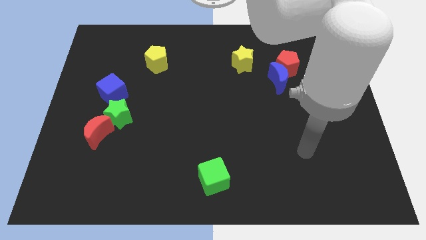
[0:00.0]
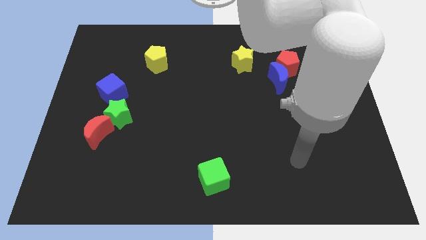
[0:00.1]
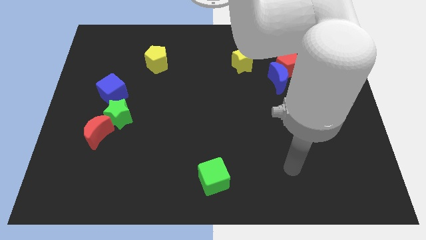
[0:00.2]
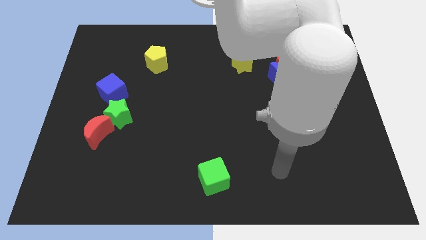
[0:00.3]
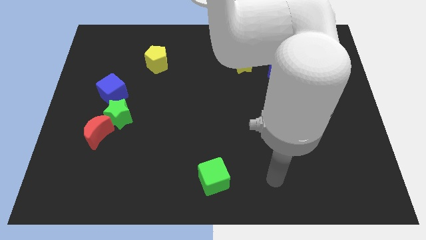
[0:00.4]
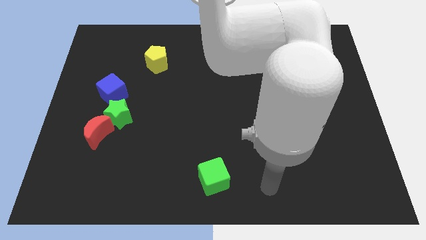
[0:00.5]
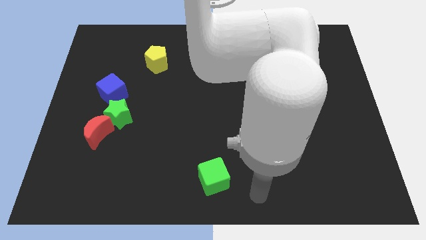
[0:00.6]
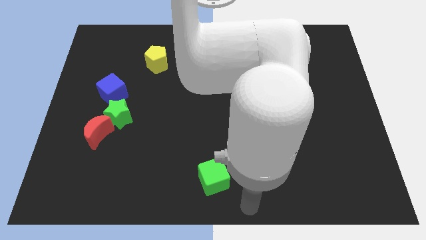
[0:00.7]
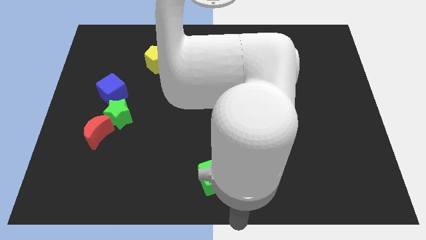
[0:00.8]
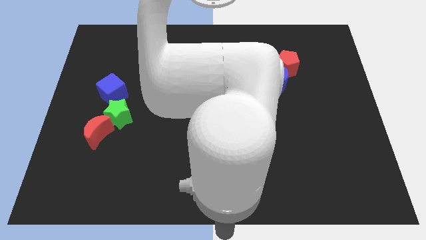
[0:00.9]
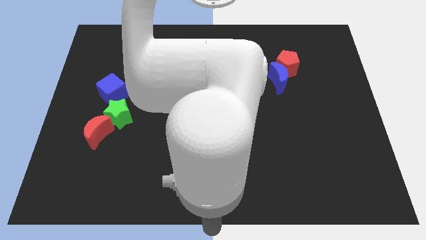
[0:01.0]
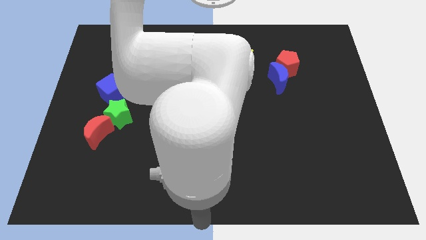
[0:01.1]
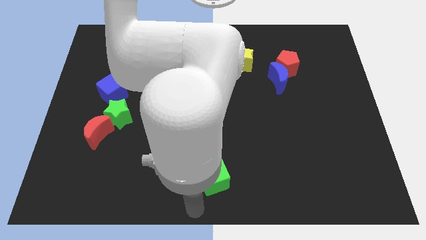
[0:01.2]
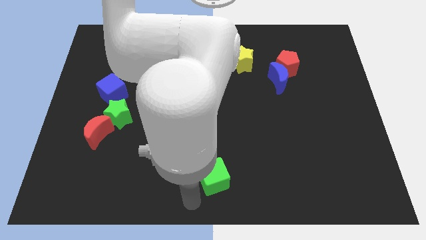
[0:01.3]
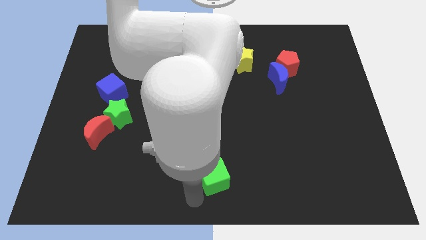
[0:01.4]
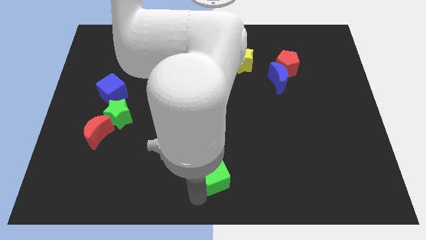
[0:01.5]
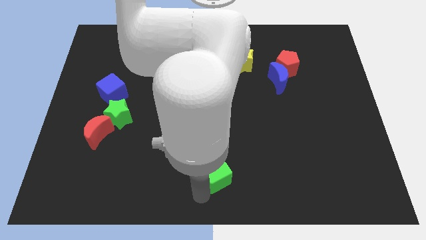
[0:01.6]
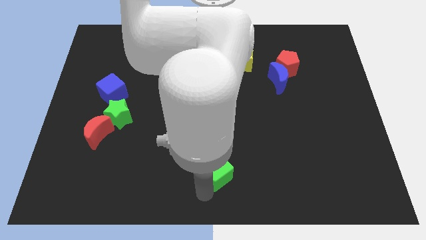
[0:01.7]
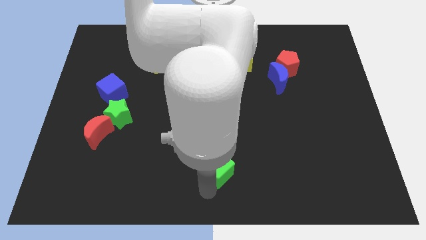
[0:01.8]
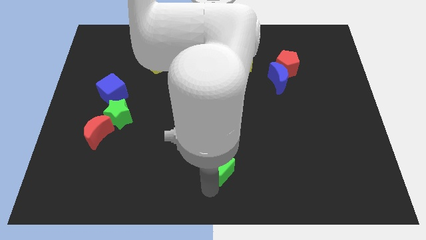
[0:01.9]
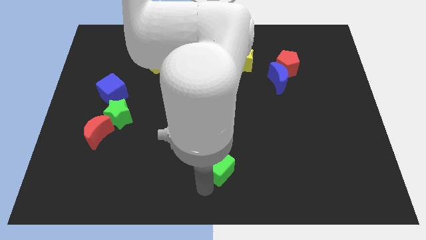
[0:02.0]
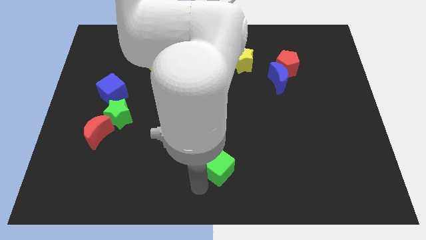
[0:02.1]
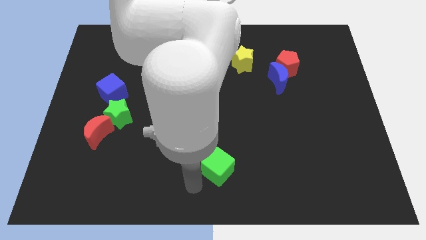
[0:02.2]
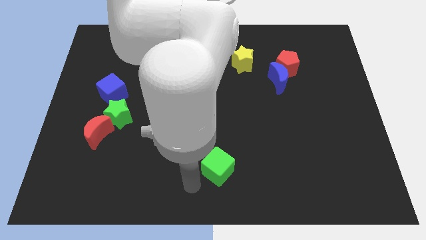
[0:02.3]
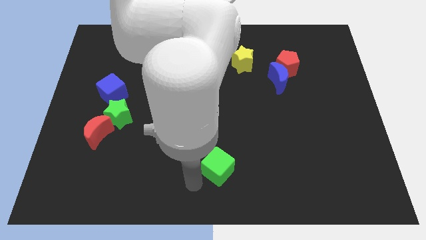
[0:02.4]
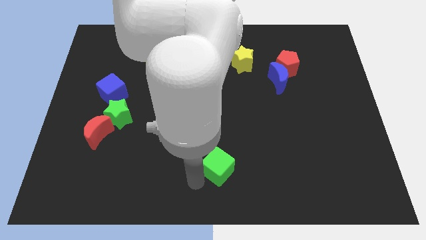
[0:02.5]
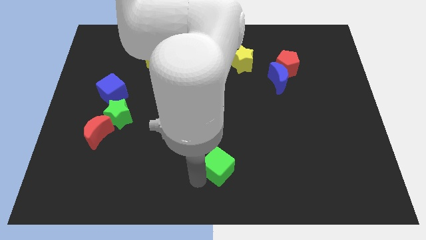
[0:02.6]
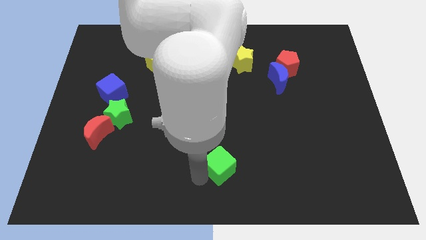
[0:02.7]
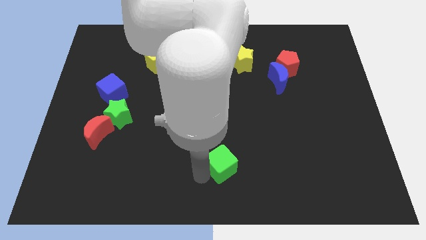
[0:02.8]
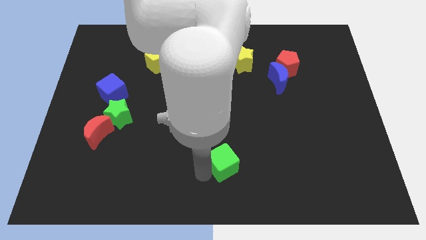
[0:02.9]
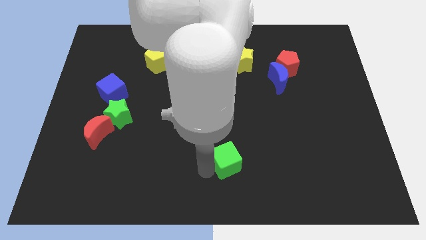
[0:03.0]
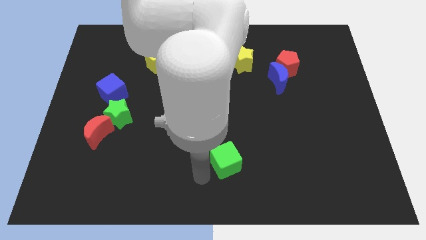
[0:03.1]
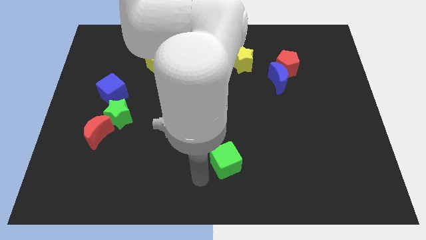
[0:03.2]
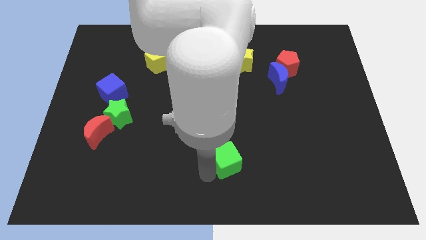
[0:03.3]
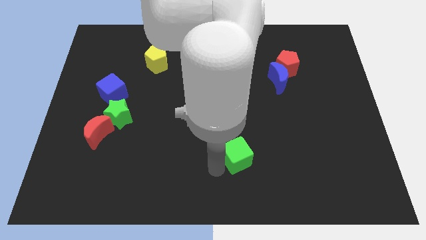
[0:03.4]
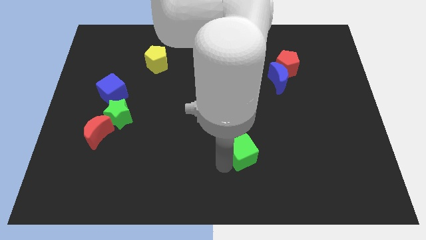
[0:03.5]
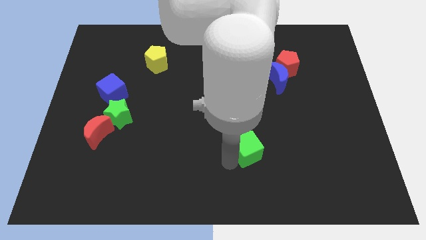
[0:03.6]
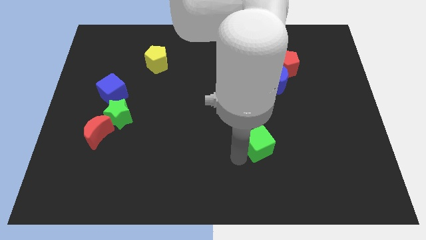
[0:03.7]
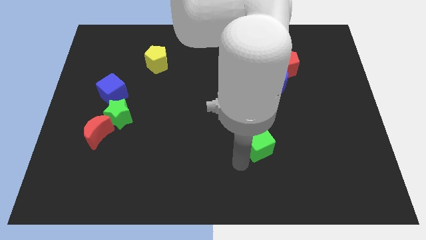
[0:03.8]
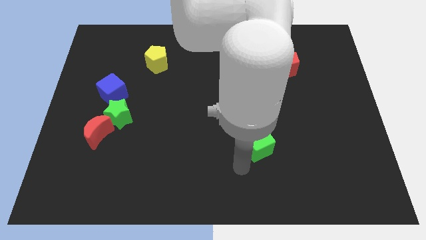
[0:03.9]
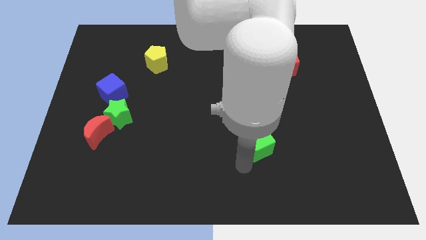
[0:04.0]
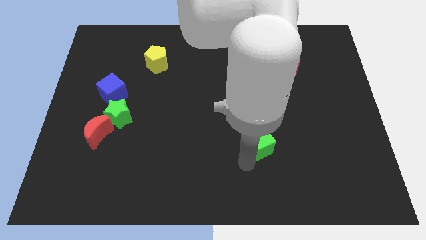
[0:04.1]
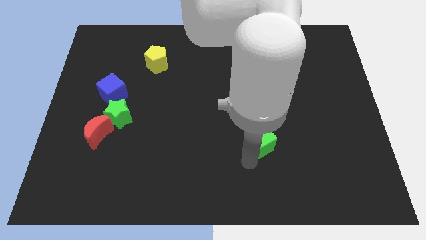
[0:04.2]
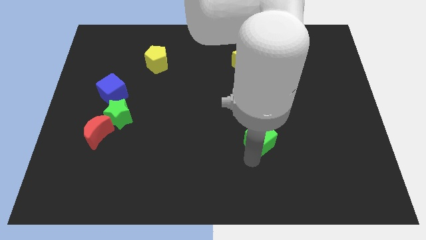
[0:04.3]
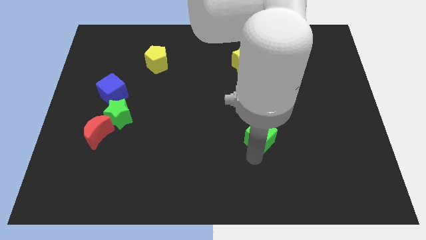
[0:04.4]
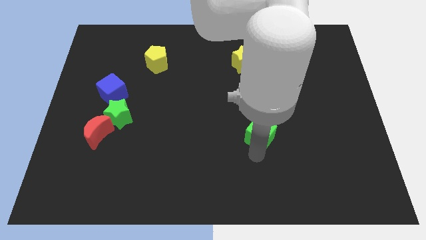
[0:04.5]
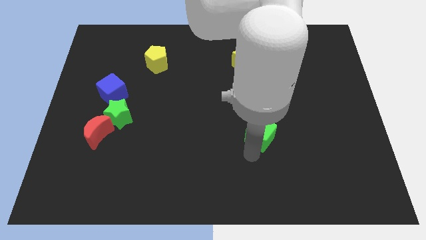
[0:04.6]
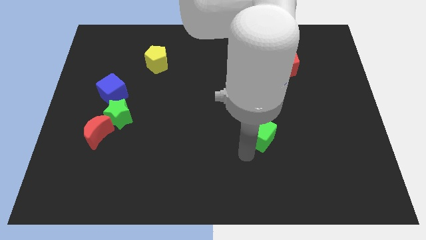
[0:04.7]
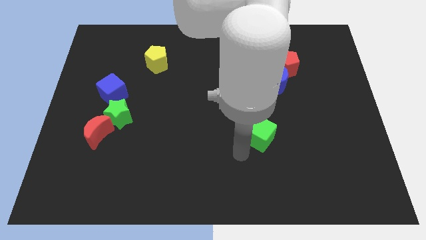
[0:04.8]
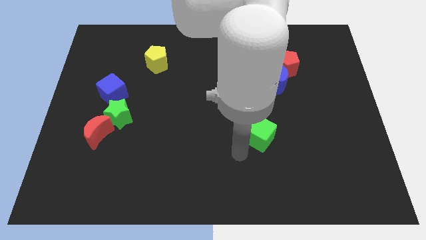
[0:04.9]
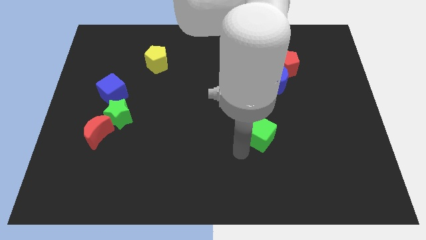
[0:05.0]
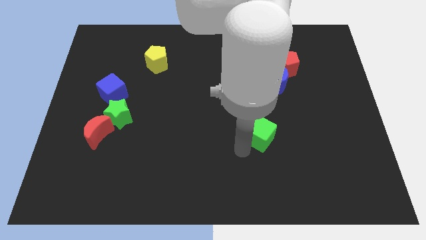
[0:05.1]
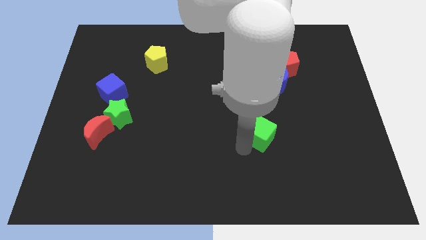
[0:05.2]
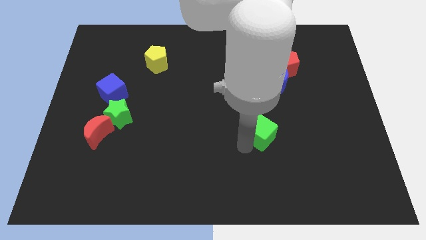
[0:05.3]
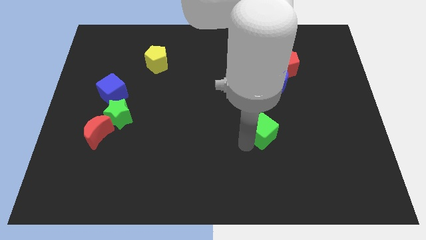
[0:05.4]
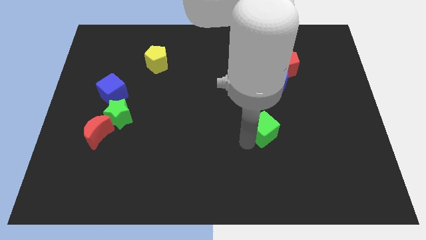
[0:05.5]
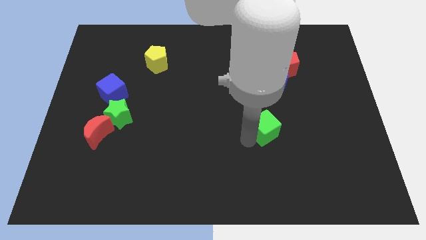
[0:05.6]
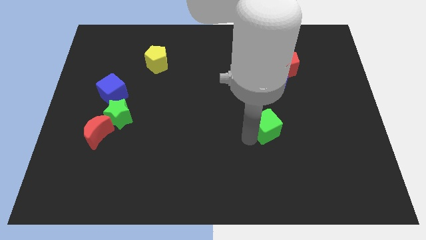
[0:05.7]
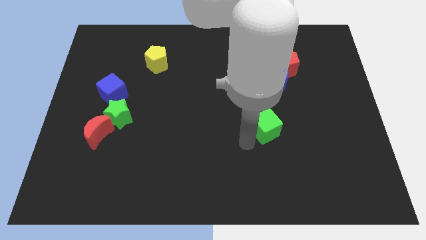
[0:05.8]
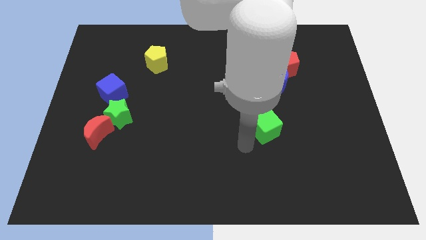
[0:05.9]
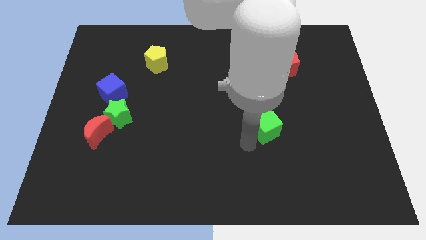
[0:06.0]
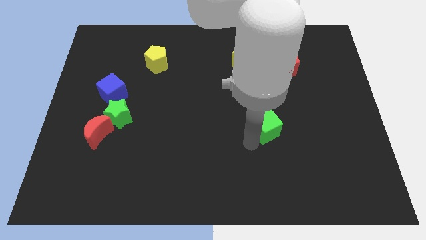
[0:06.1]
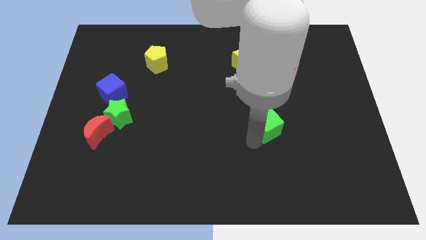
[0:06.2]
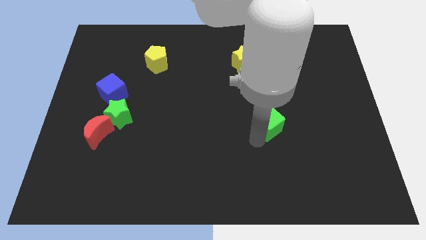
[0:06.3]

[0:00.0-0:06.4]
slide the green cube below the blue moon

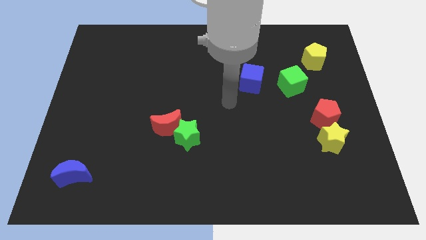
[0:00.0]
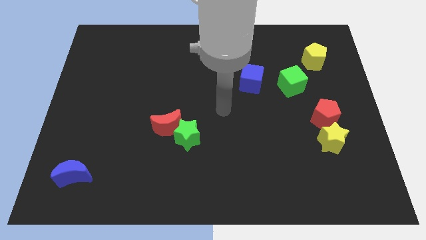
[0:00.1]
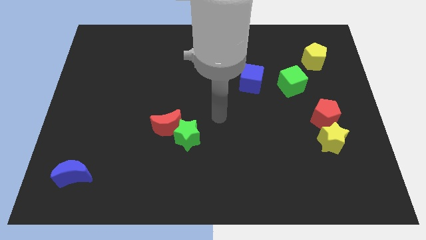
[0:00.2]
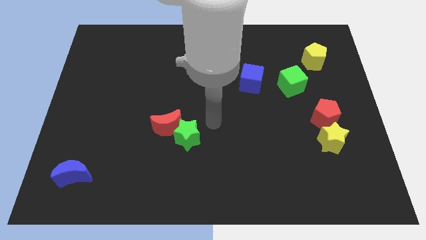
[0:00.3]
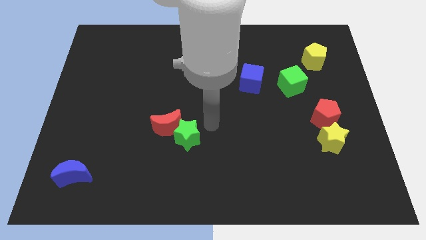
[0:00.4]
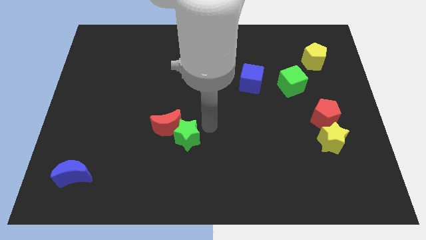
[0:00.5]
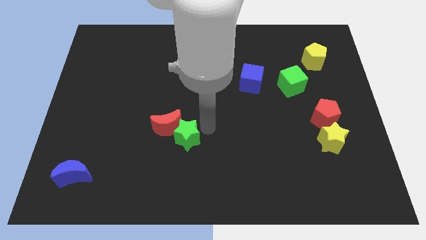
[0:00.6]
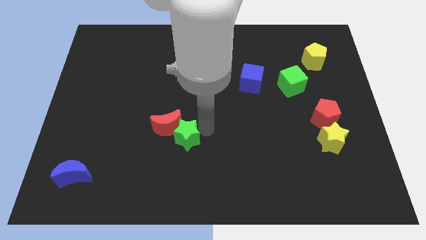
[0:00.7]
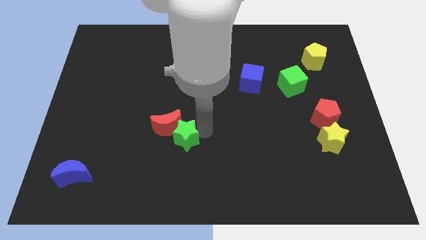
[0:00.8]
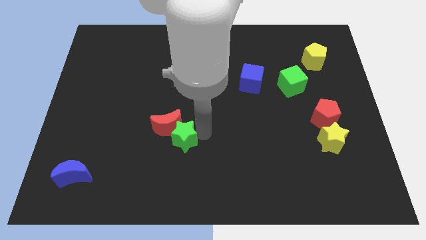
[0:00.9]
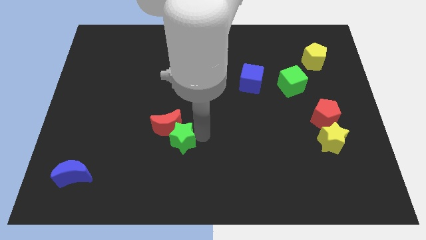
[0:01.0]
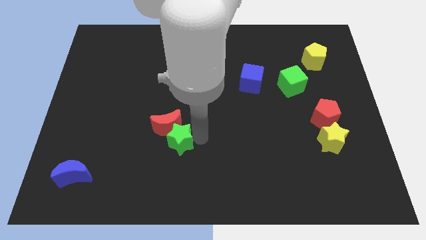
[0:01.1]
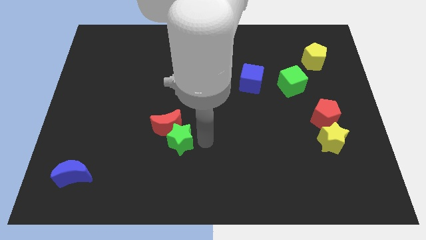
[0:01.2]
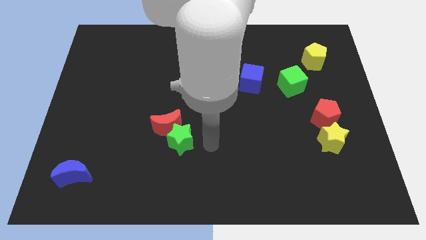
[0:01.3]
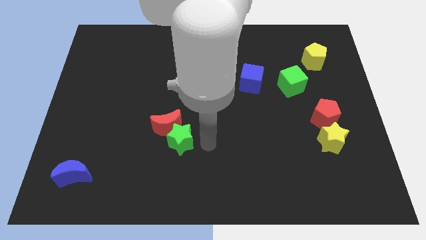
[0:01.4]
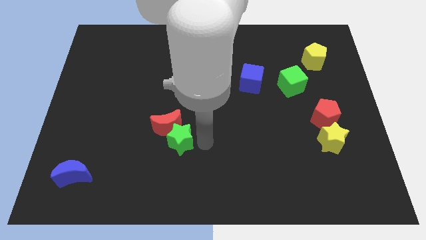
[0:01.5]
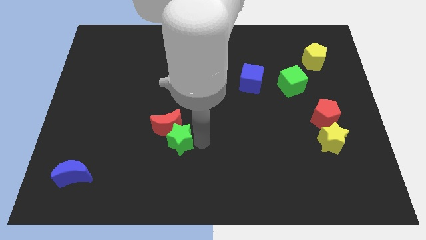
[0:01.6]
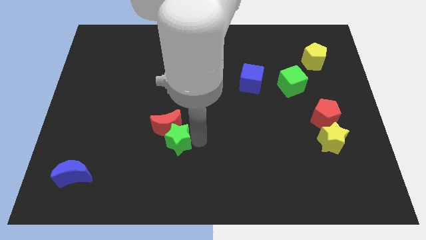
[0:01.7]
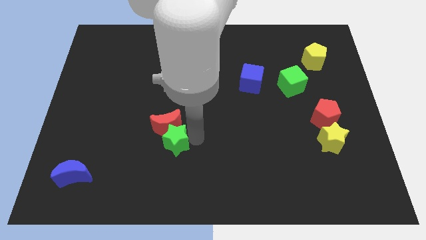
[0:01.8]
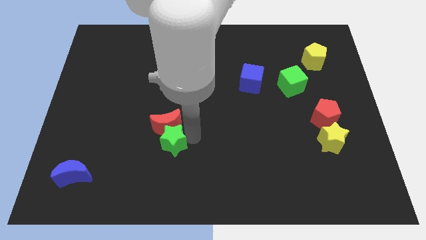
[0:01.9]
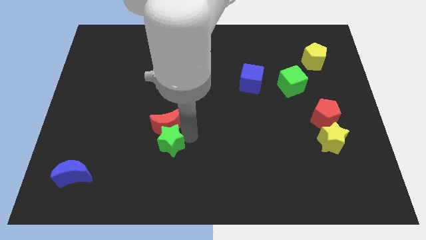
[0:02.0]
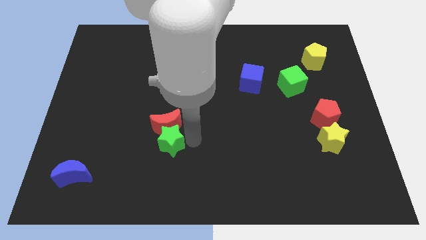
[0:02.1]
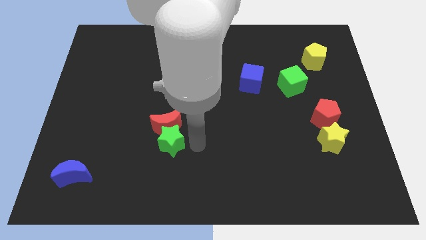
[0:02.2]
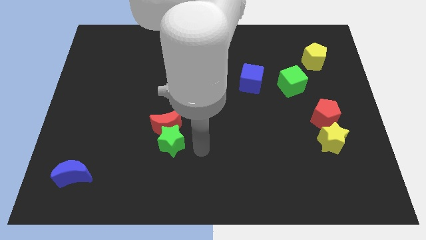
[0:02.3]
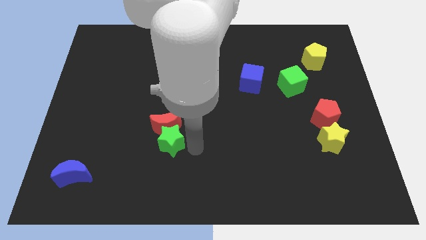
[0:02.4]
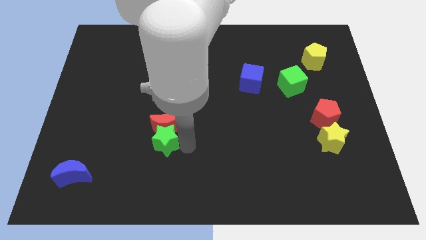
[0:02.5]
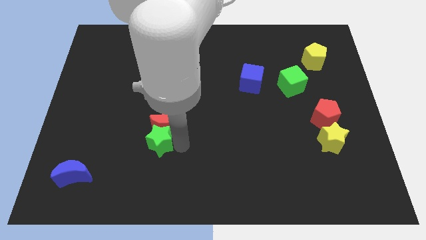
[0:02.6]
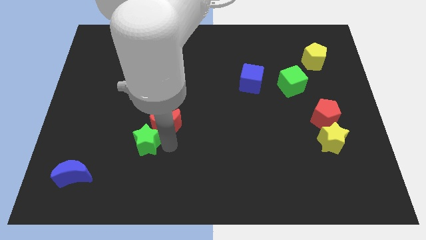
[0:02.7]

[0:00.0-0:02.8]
move the green star to the left side of the red moon
